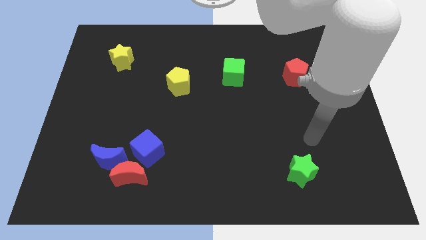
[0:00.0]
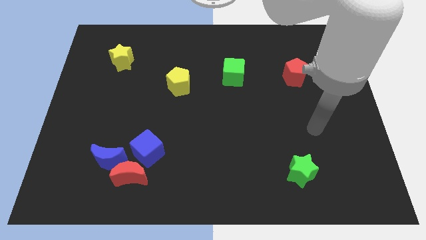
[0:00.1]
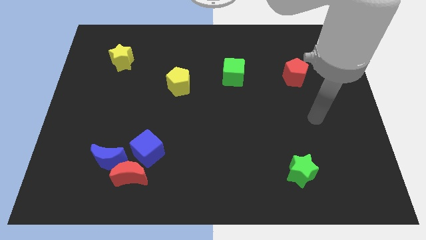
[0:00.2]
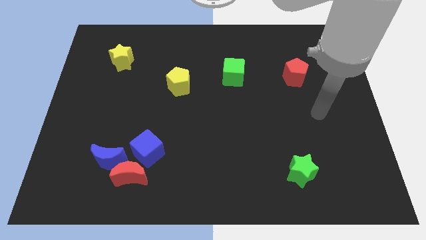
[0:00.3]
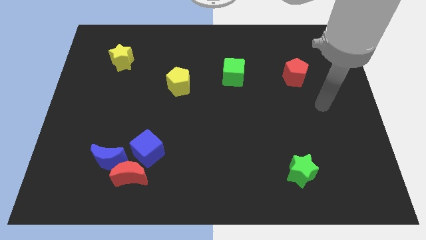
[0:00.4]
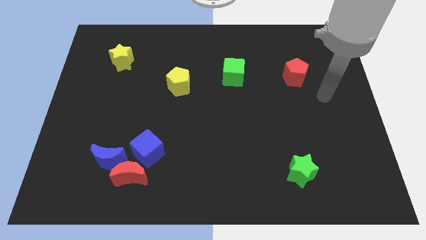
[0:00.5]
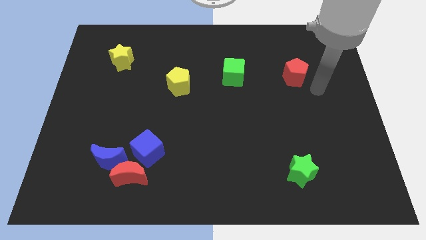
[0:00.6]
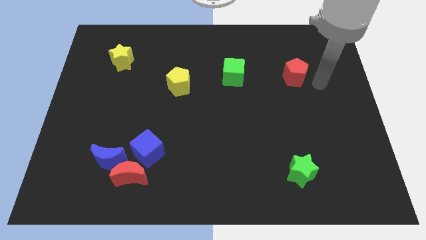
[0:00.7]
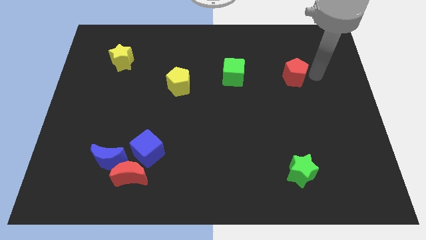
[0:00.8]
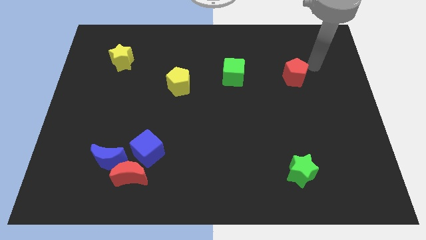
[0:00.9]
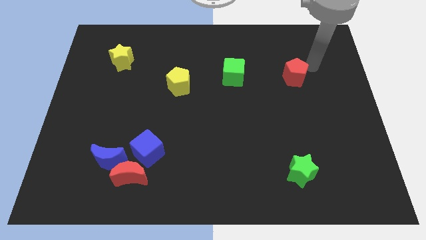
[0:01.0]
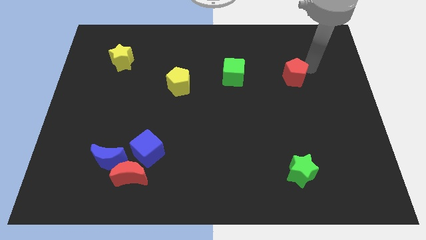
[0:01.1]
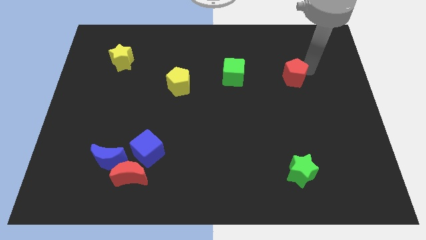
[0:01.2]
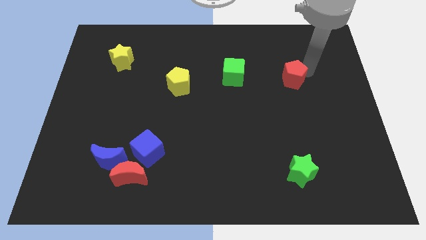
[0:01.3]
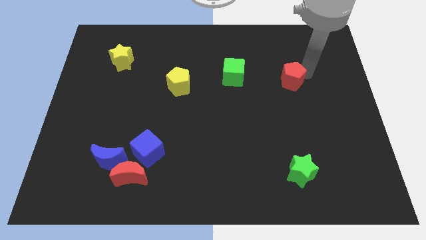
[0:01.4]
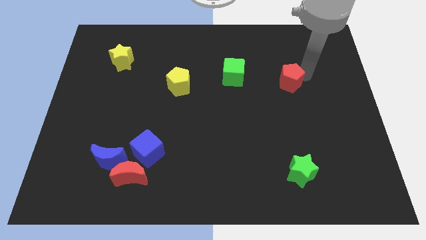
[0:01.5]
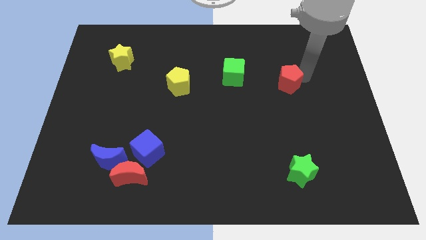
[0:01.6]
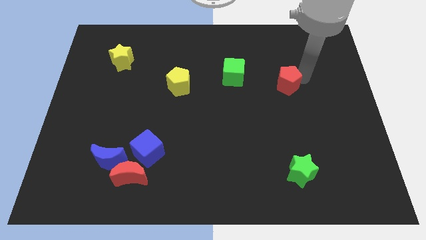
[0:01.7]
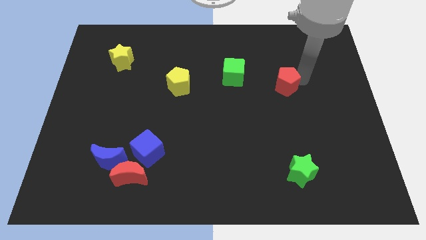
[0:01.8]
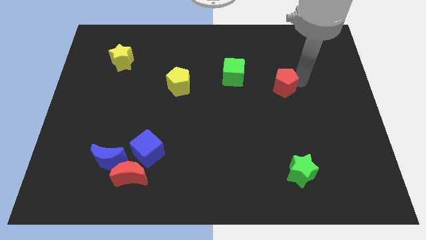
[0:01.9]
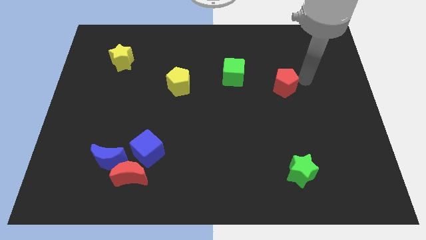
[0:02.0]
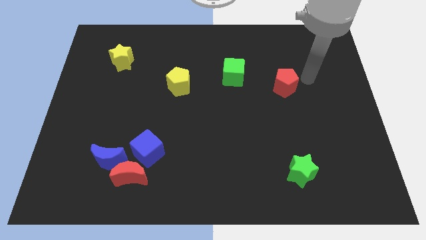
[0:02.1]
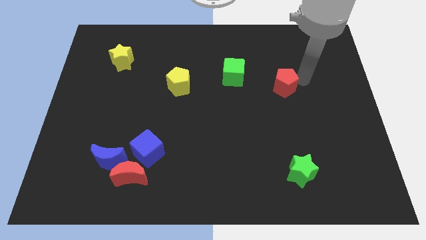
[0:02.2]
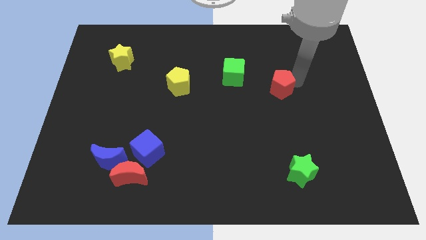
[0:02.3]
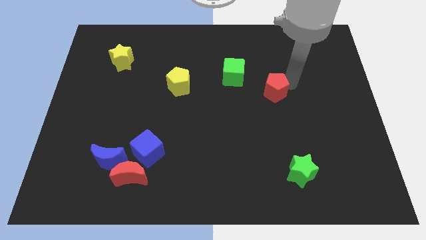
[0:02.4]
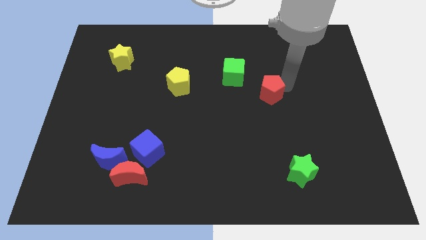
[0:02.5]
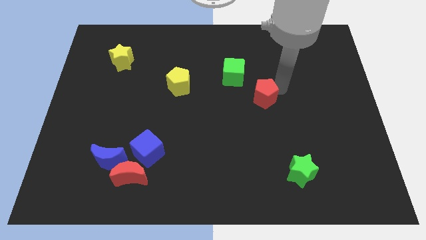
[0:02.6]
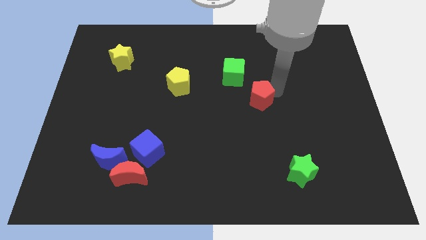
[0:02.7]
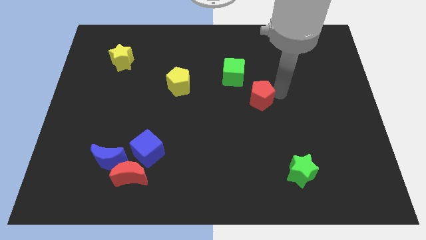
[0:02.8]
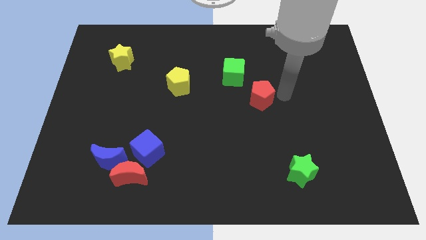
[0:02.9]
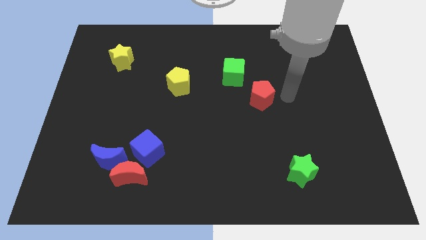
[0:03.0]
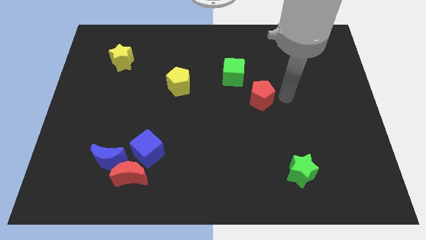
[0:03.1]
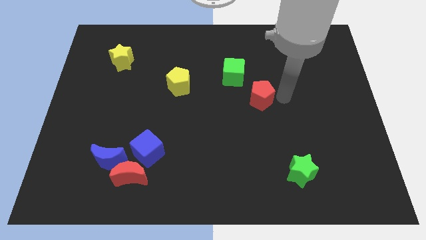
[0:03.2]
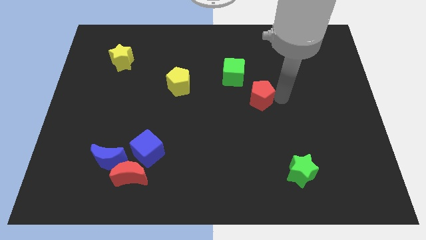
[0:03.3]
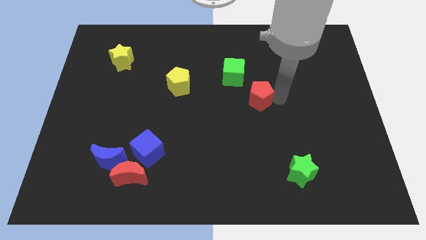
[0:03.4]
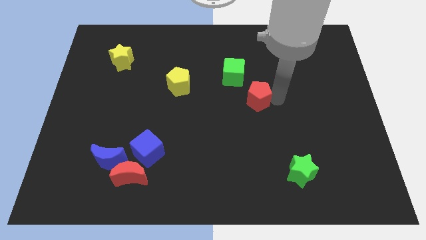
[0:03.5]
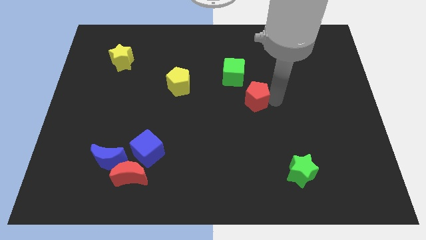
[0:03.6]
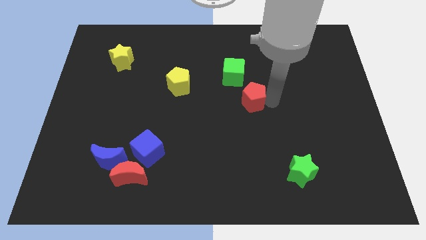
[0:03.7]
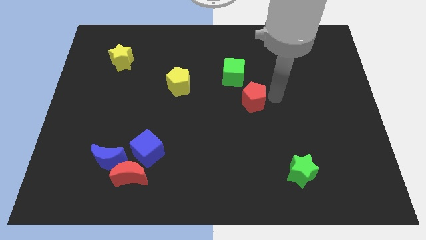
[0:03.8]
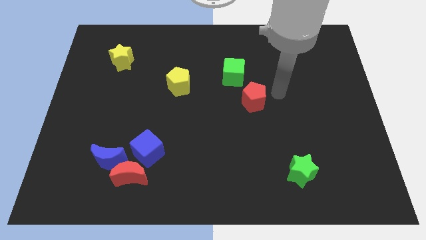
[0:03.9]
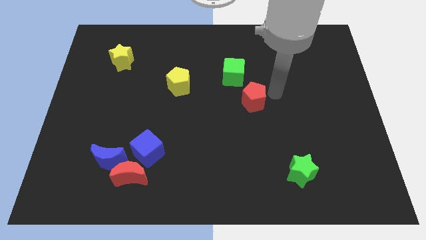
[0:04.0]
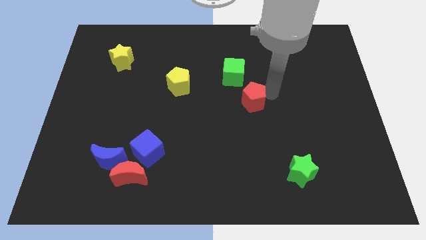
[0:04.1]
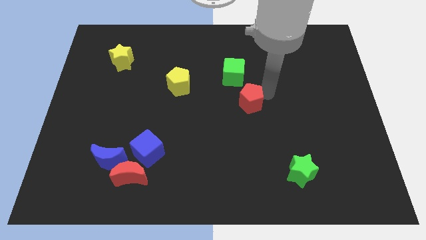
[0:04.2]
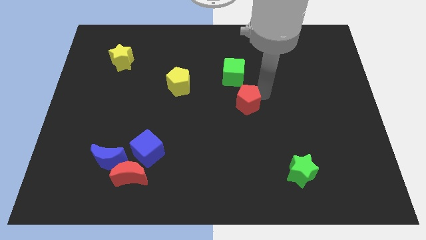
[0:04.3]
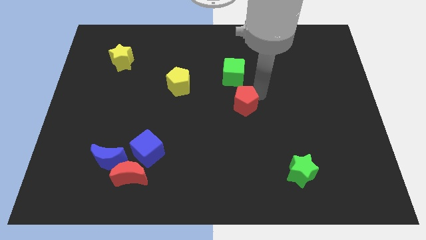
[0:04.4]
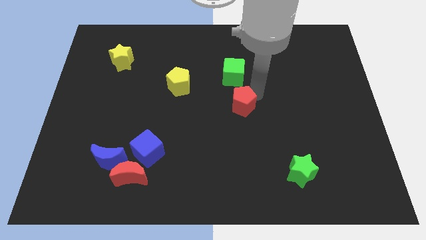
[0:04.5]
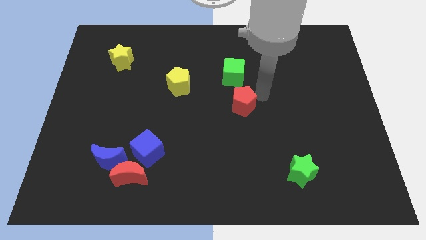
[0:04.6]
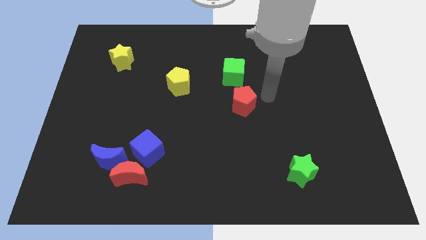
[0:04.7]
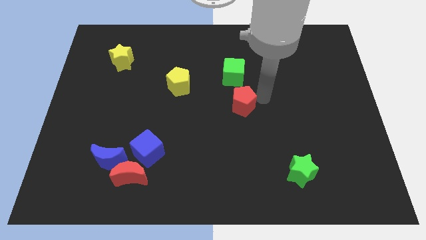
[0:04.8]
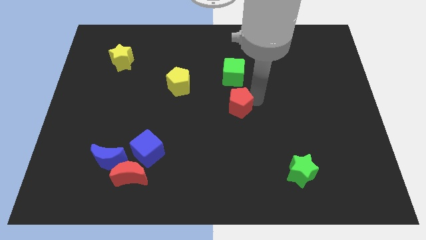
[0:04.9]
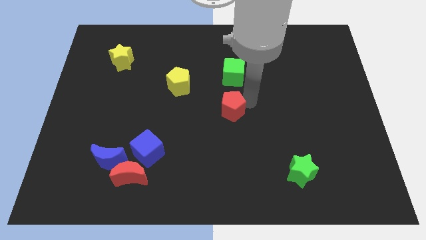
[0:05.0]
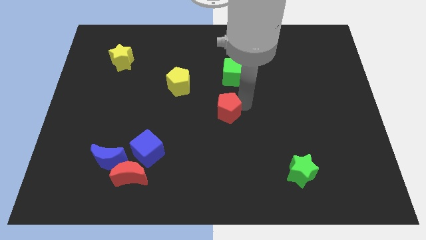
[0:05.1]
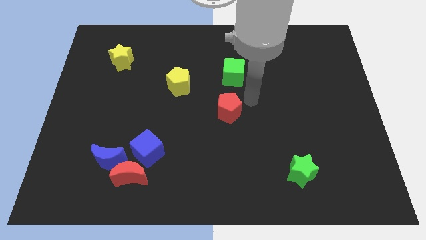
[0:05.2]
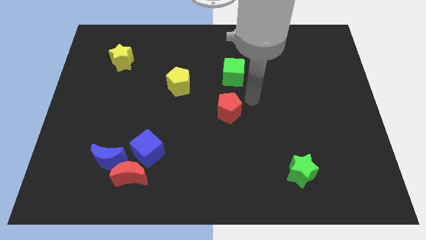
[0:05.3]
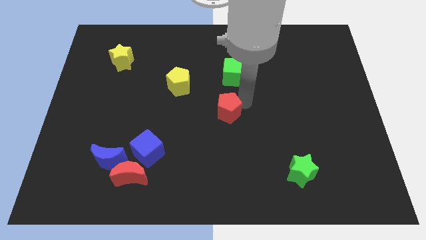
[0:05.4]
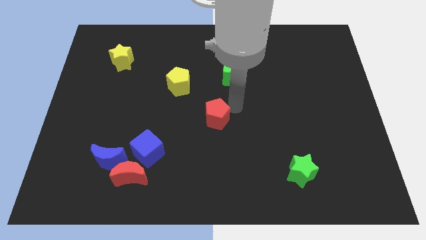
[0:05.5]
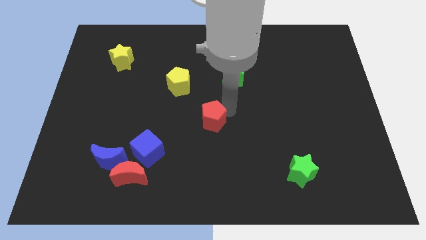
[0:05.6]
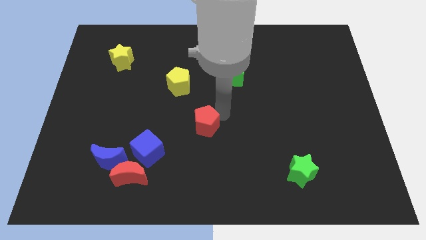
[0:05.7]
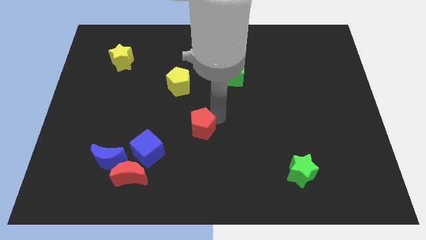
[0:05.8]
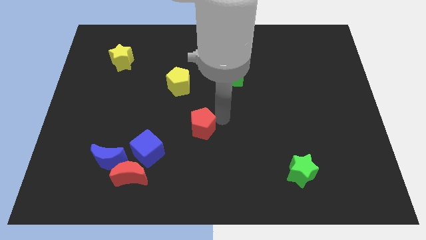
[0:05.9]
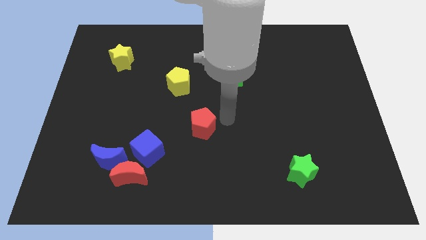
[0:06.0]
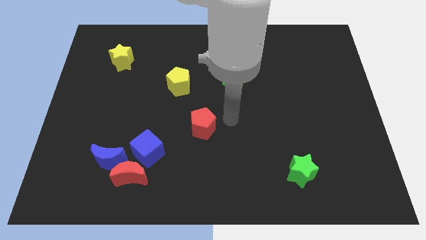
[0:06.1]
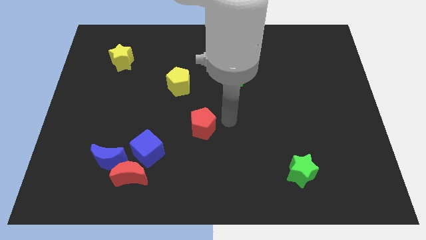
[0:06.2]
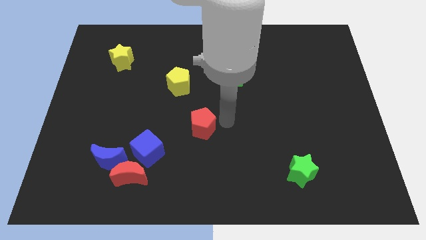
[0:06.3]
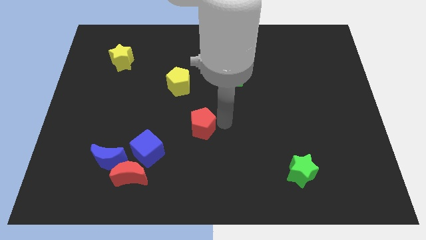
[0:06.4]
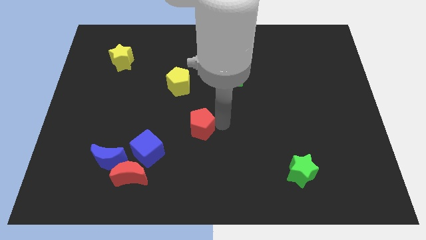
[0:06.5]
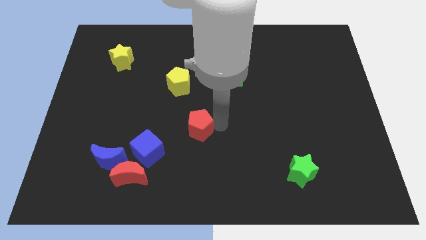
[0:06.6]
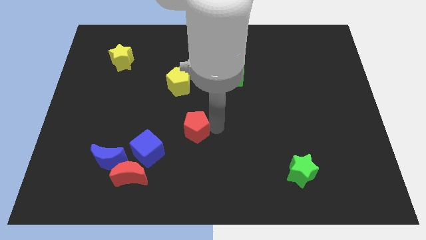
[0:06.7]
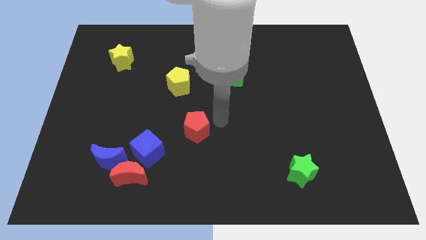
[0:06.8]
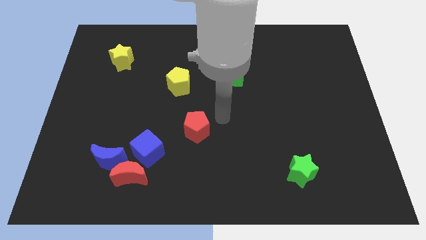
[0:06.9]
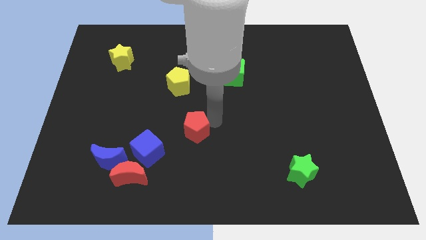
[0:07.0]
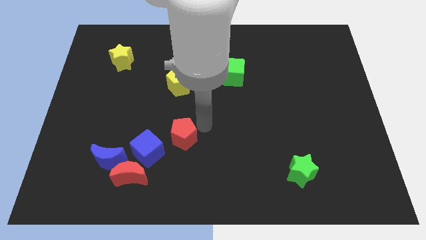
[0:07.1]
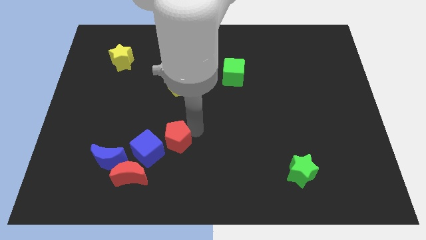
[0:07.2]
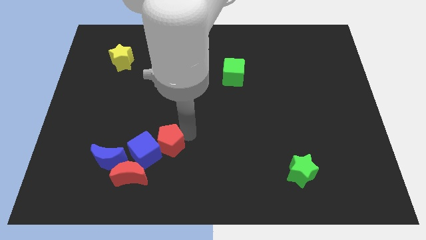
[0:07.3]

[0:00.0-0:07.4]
move the red pentagon next to the blue cube
